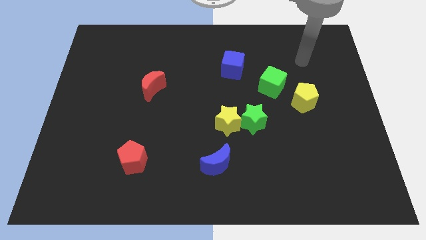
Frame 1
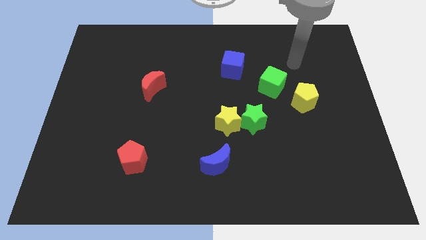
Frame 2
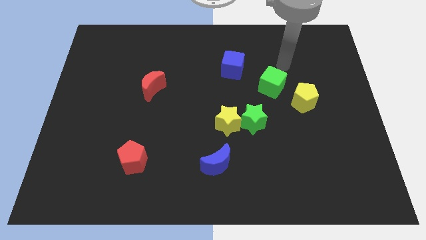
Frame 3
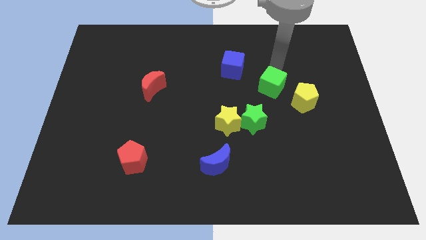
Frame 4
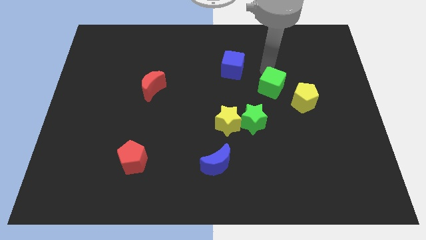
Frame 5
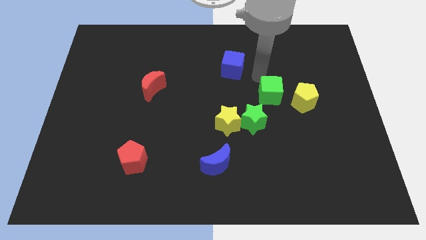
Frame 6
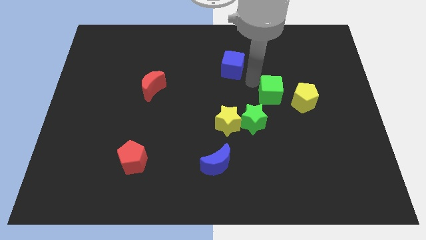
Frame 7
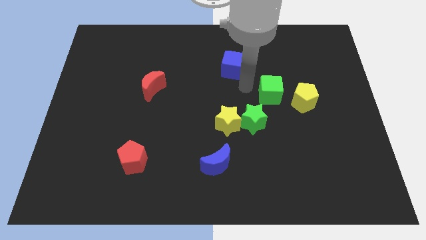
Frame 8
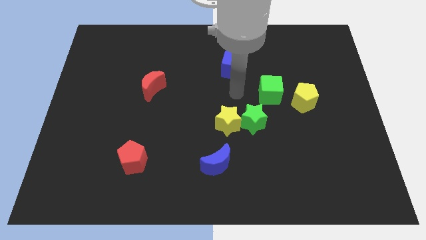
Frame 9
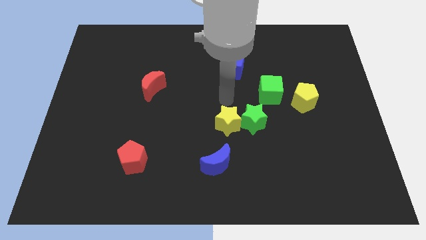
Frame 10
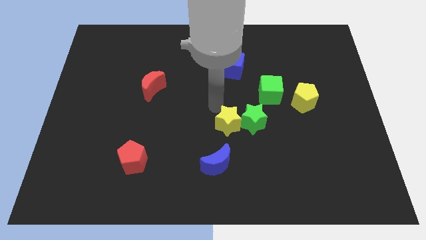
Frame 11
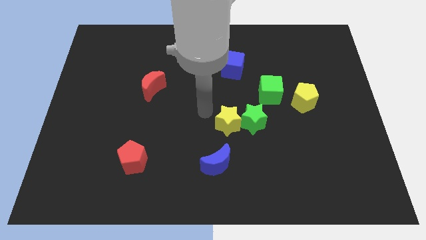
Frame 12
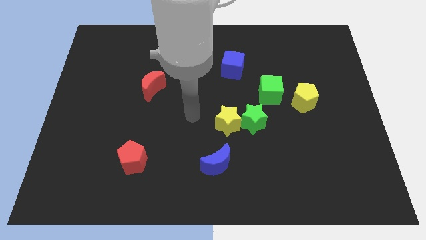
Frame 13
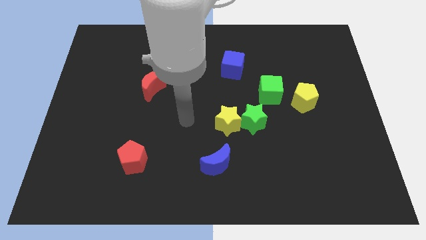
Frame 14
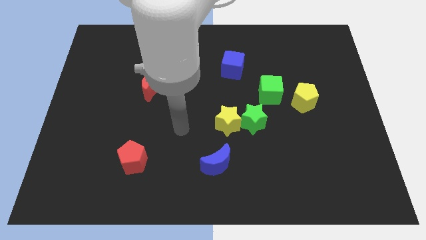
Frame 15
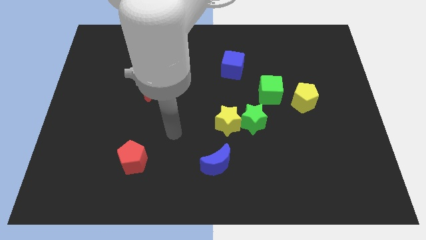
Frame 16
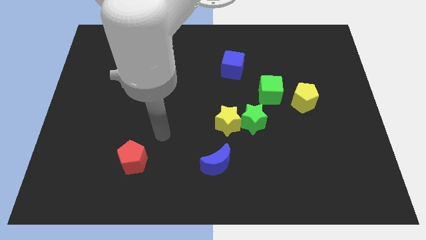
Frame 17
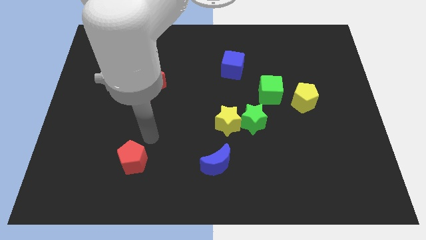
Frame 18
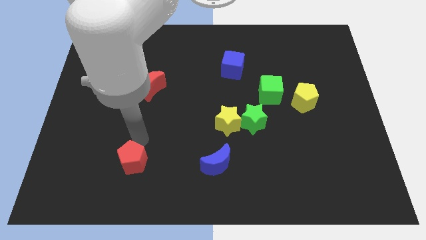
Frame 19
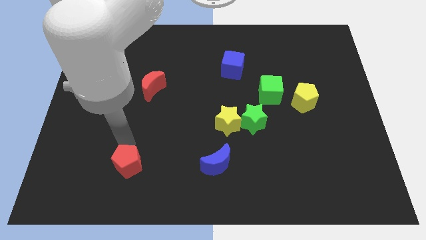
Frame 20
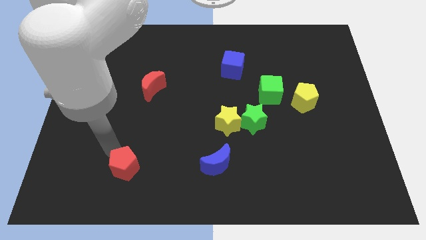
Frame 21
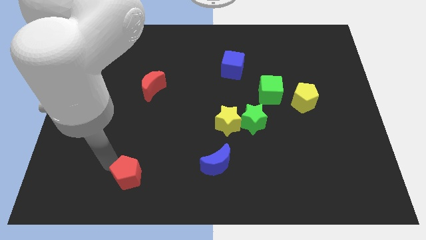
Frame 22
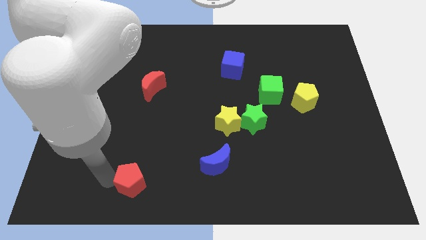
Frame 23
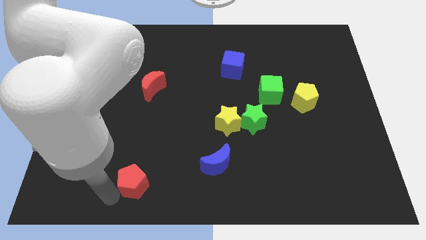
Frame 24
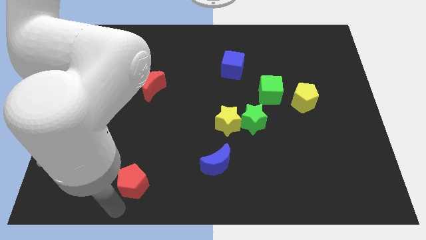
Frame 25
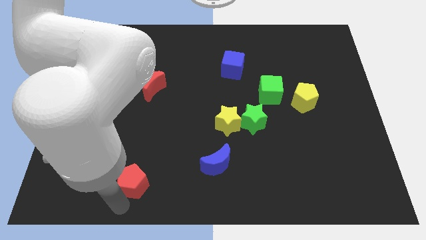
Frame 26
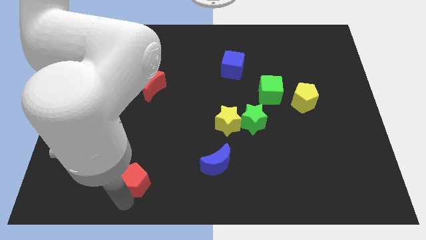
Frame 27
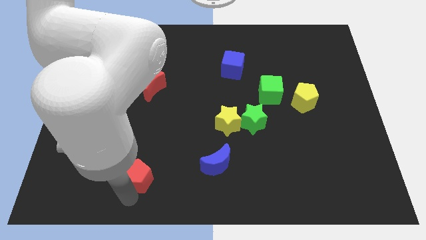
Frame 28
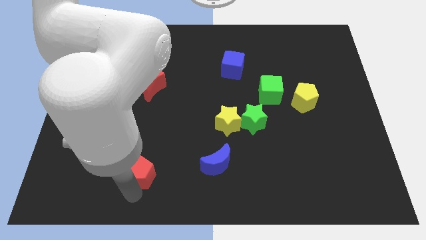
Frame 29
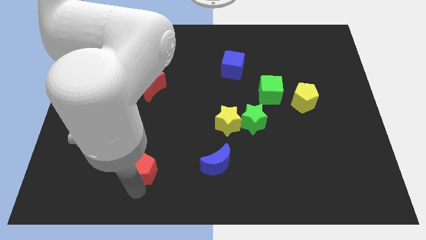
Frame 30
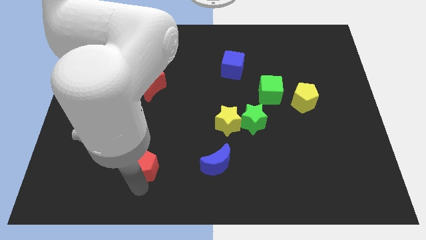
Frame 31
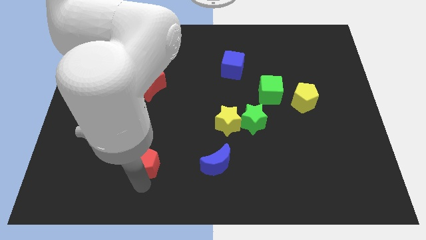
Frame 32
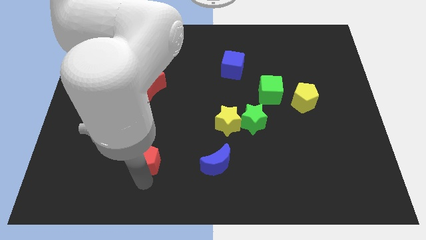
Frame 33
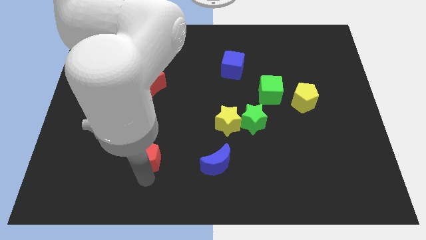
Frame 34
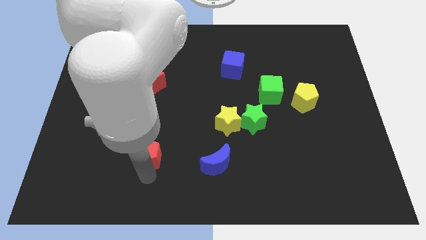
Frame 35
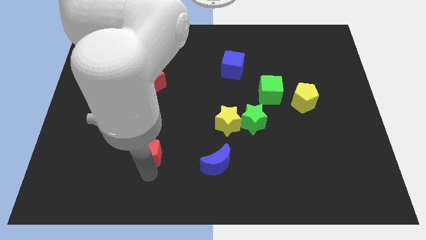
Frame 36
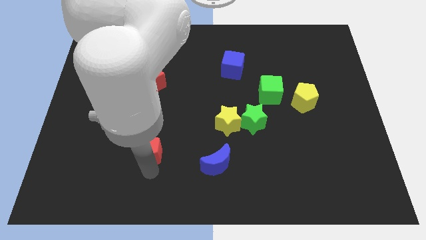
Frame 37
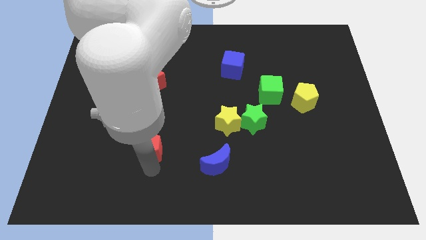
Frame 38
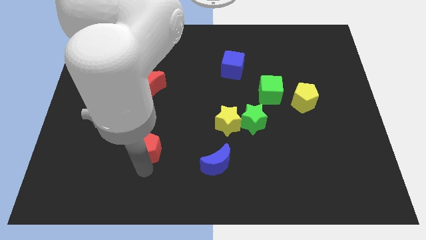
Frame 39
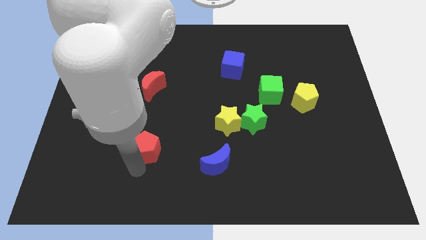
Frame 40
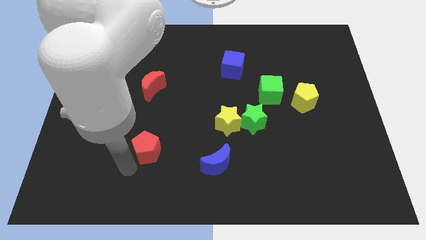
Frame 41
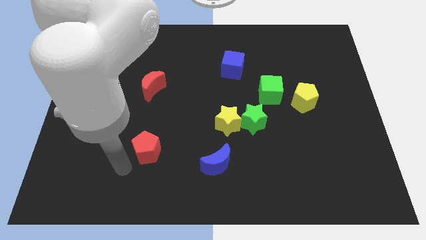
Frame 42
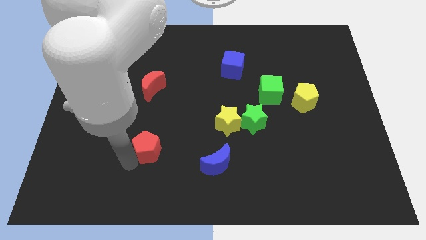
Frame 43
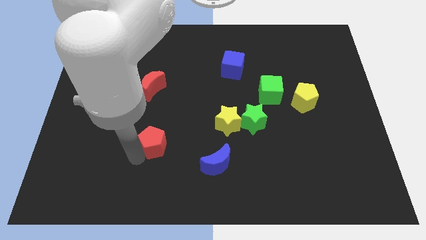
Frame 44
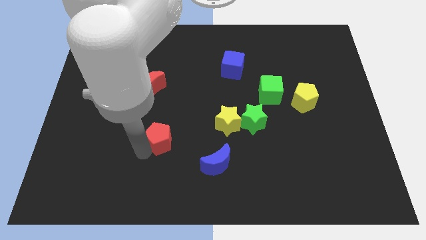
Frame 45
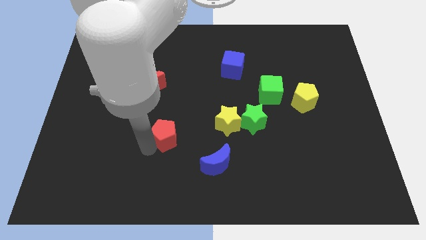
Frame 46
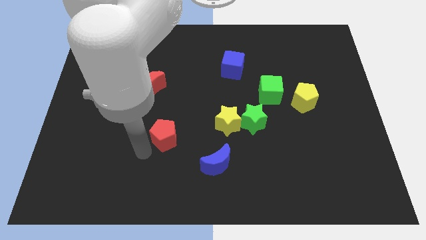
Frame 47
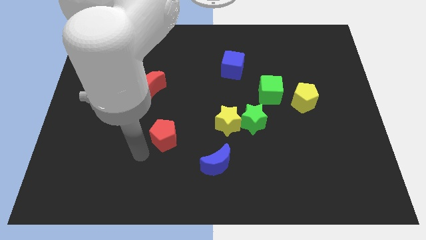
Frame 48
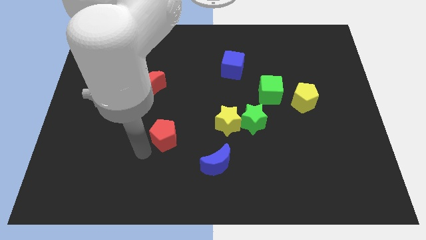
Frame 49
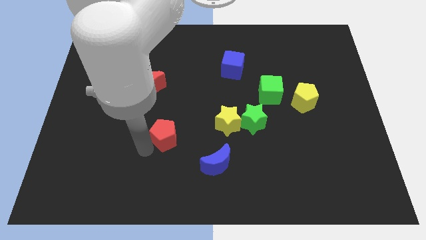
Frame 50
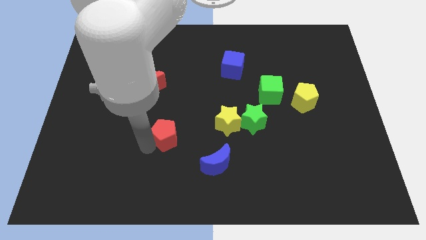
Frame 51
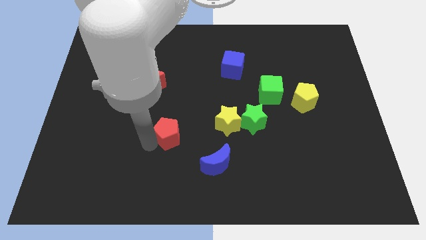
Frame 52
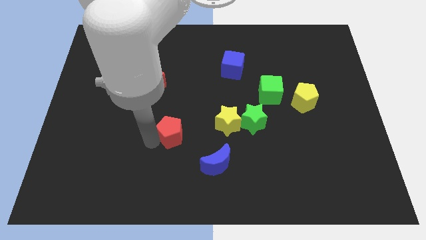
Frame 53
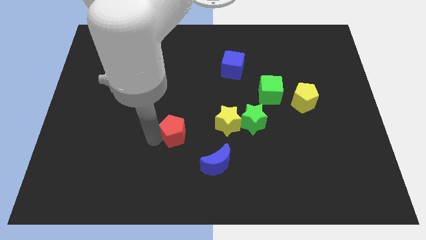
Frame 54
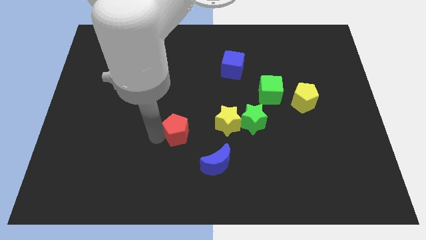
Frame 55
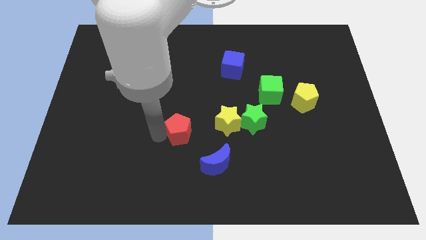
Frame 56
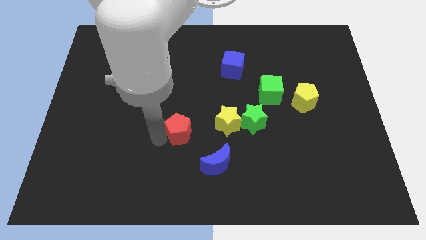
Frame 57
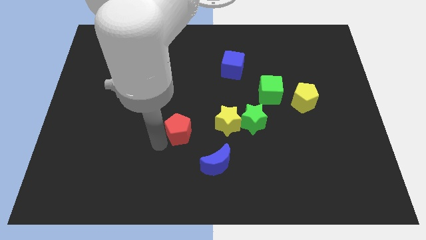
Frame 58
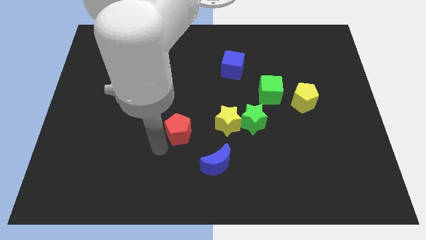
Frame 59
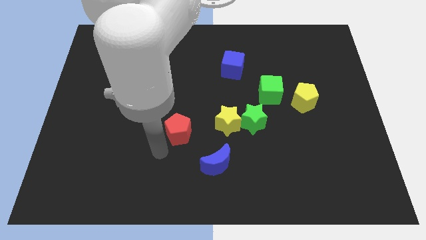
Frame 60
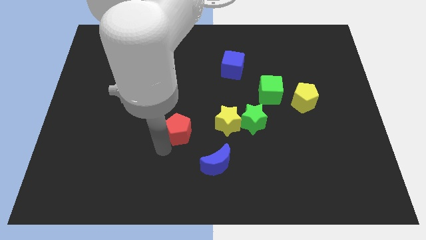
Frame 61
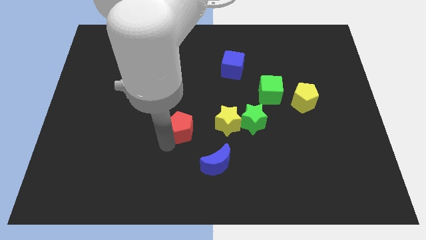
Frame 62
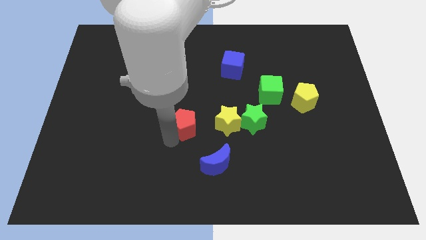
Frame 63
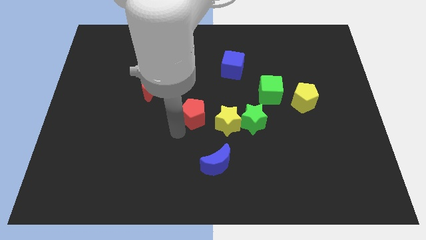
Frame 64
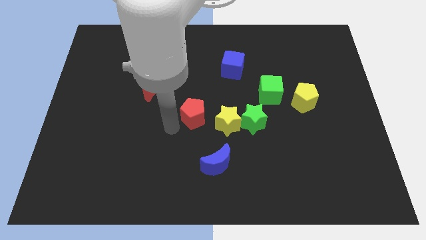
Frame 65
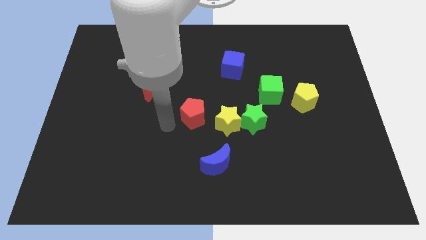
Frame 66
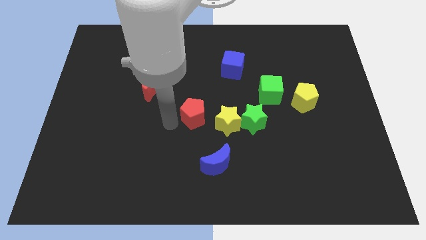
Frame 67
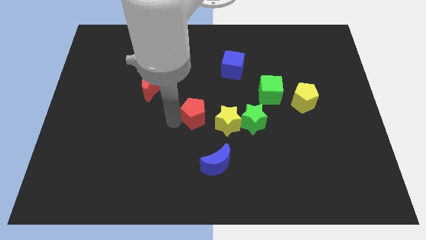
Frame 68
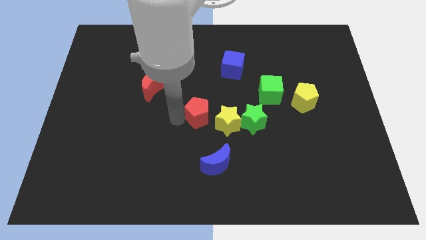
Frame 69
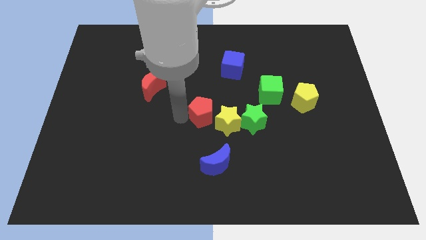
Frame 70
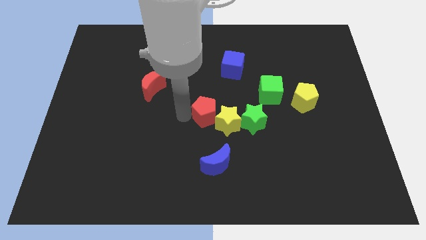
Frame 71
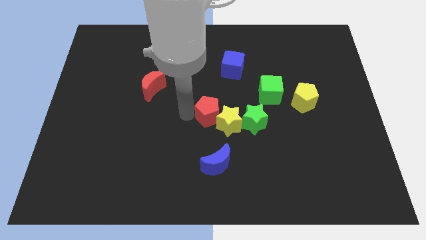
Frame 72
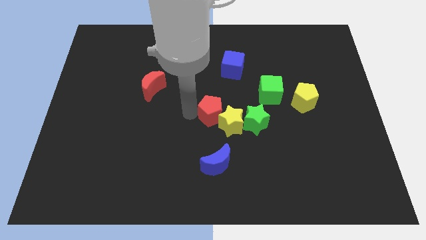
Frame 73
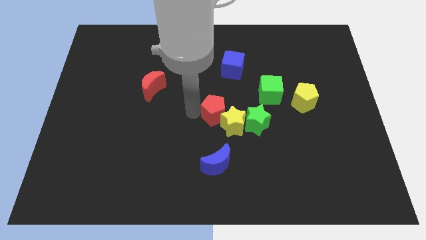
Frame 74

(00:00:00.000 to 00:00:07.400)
put the red pentagon to the top left side of the green star
